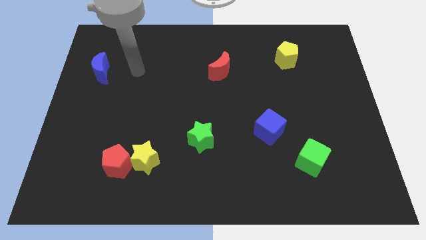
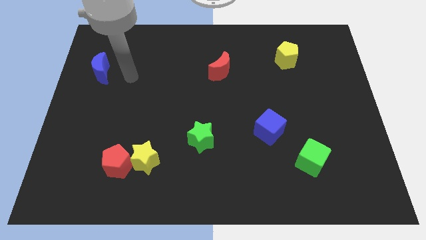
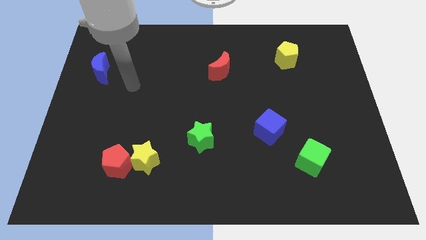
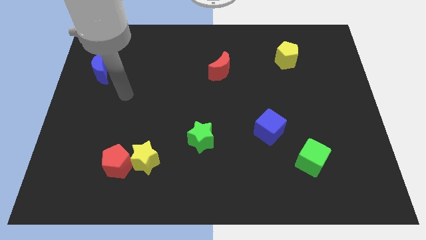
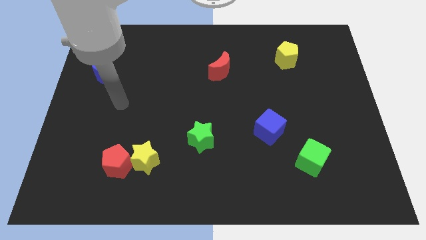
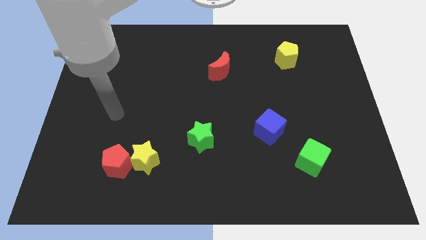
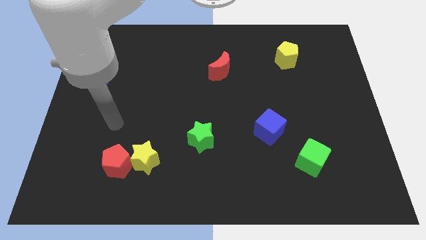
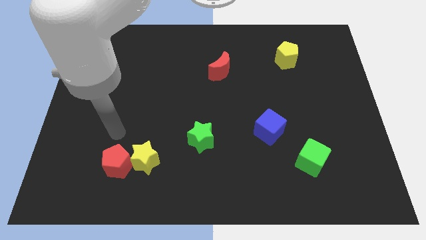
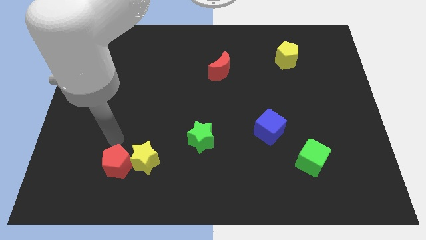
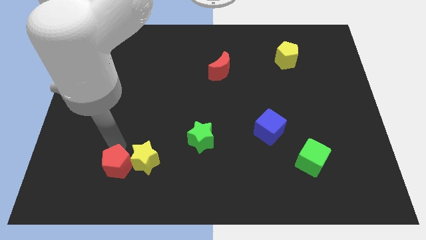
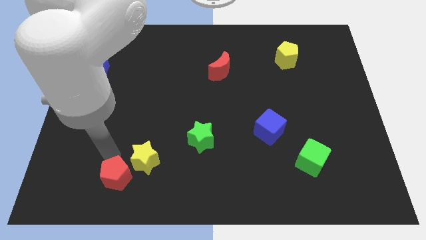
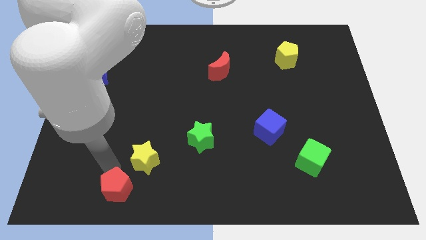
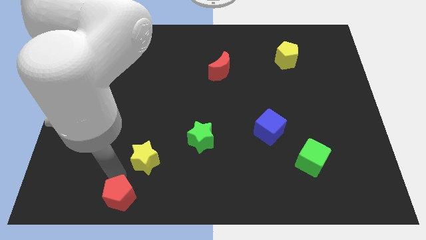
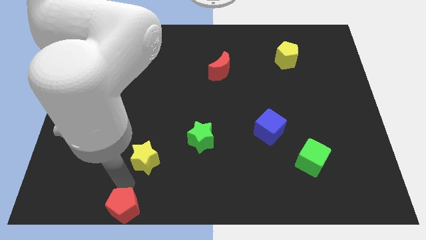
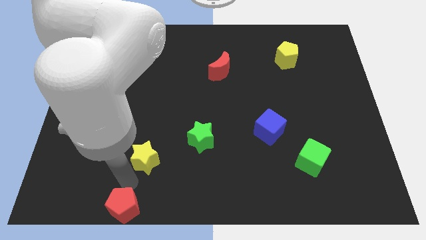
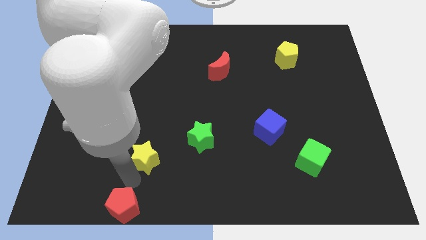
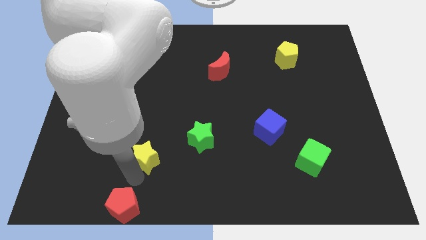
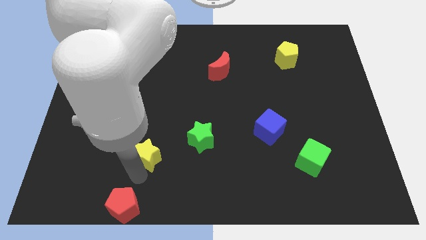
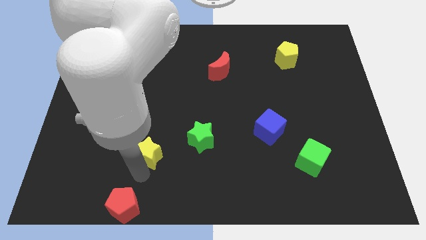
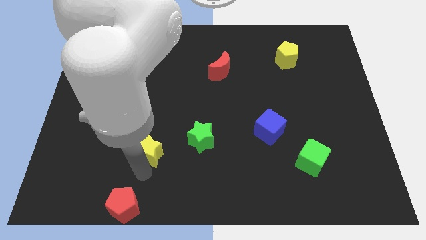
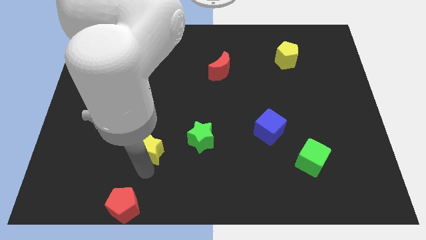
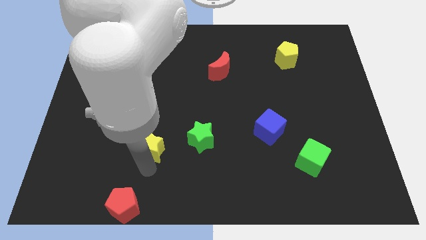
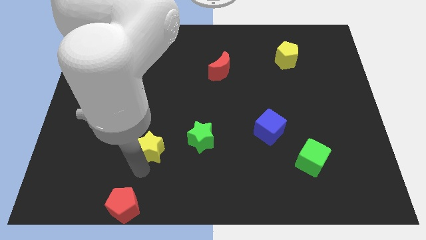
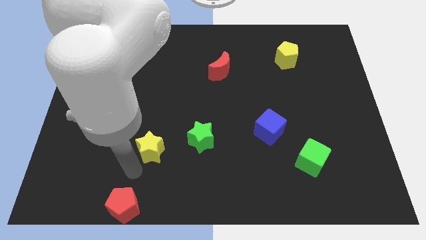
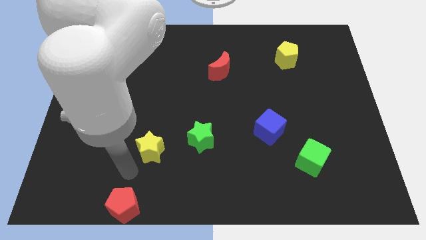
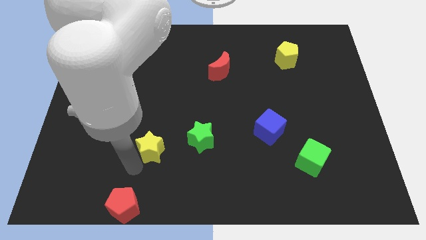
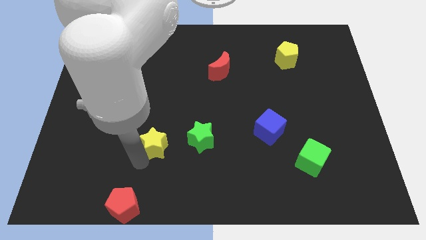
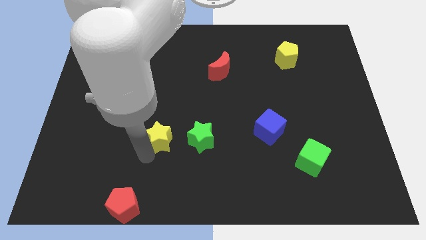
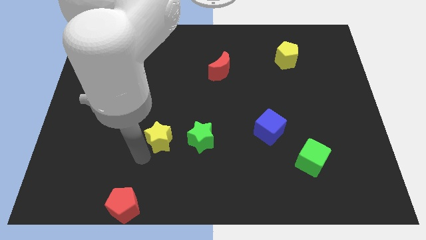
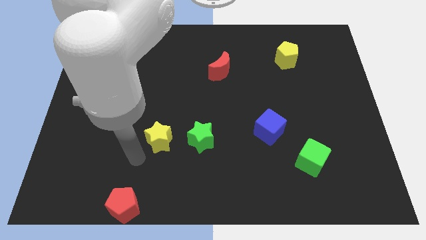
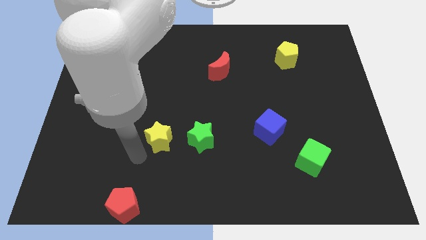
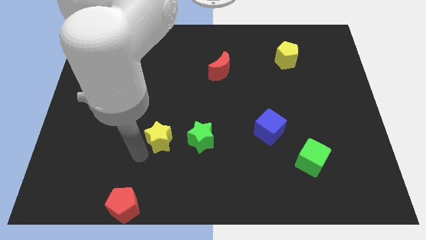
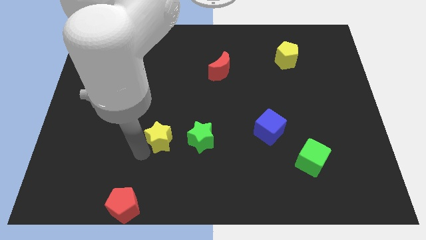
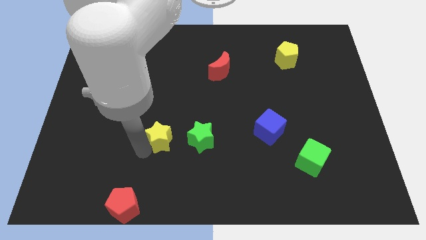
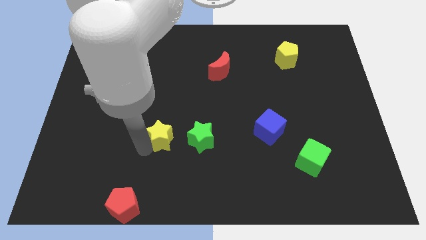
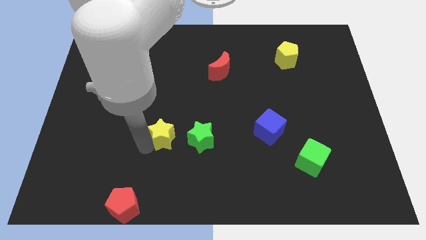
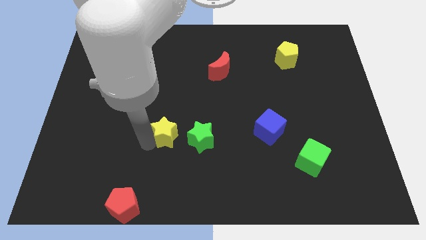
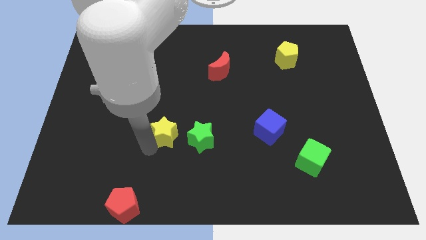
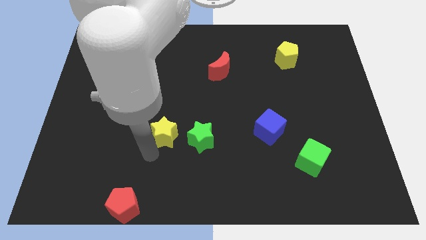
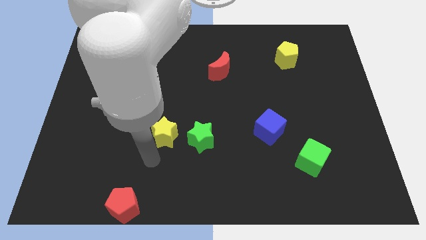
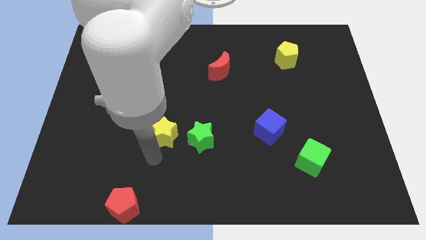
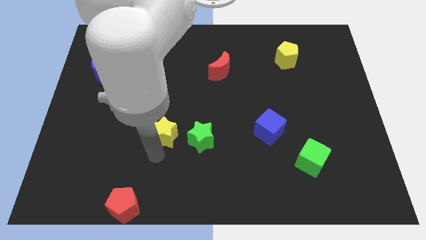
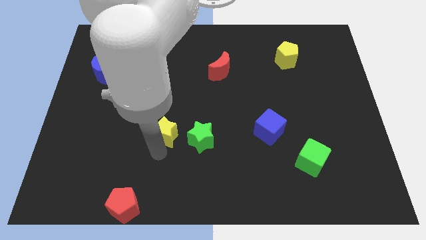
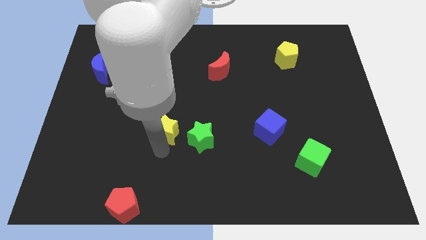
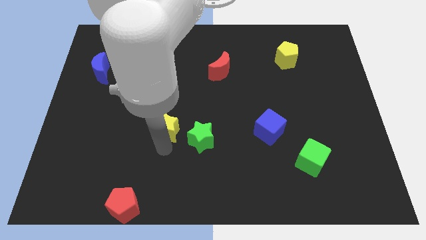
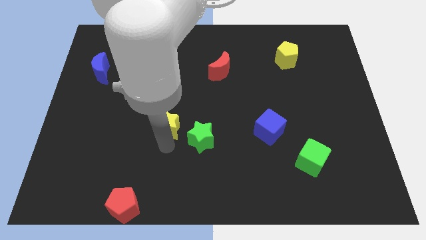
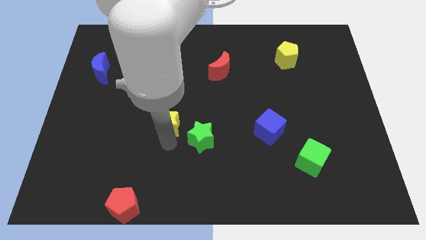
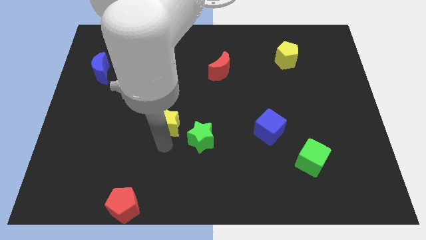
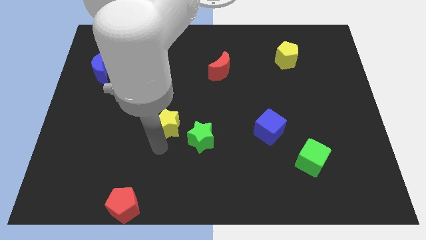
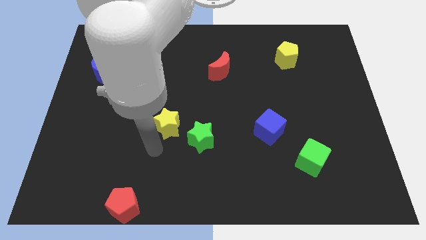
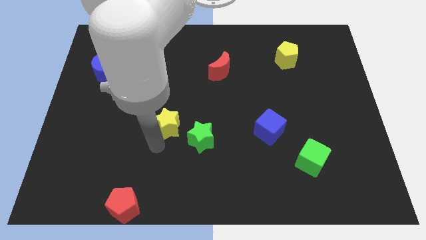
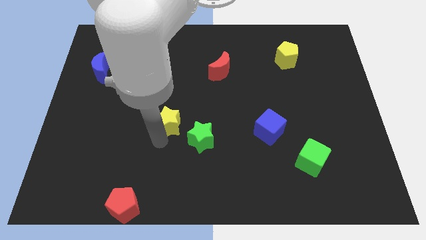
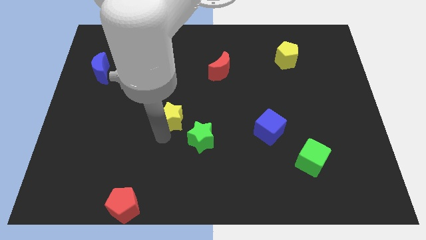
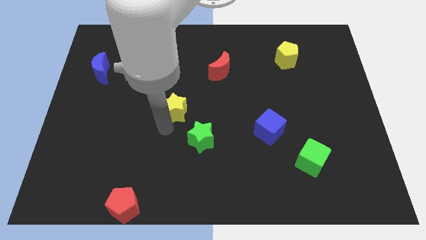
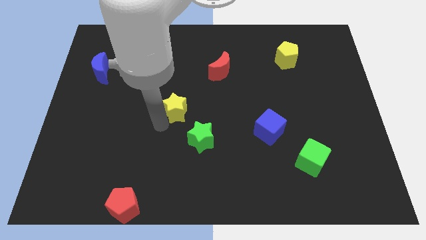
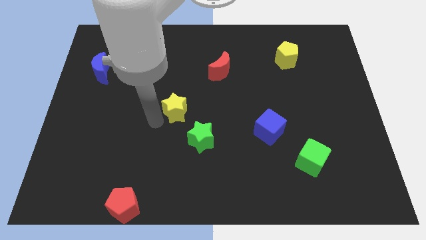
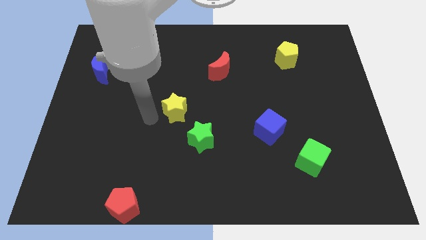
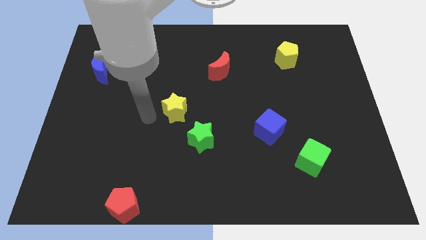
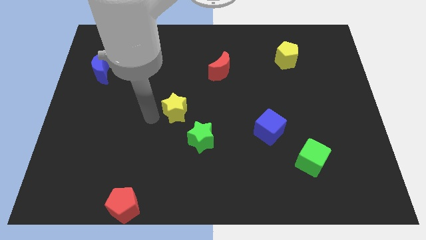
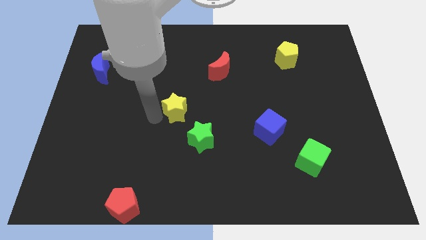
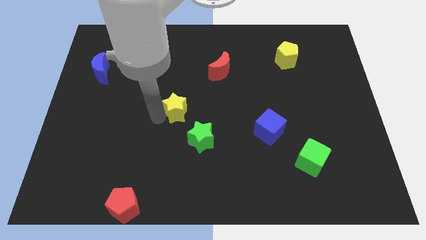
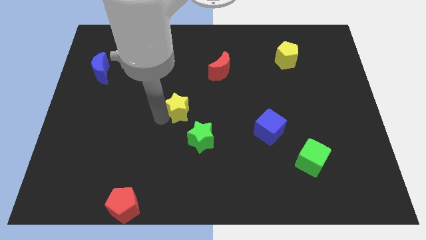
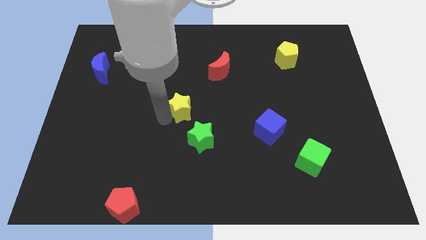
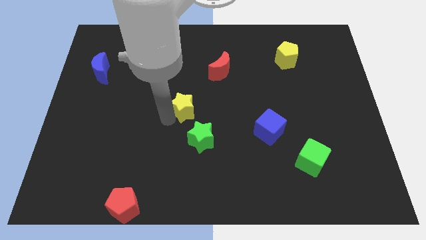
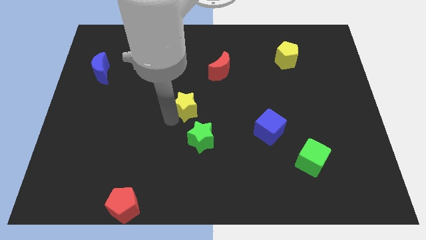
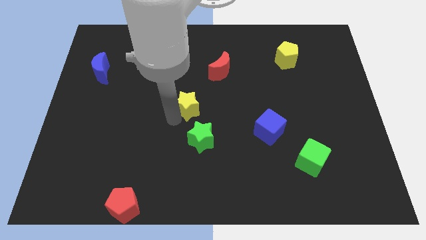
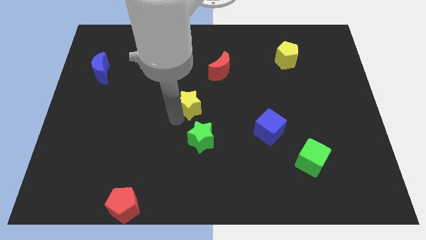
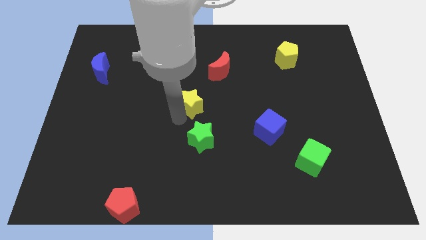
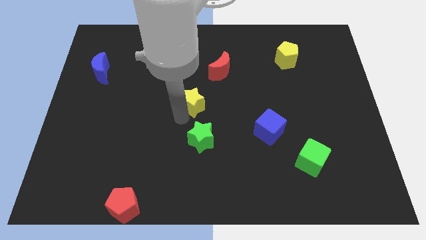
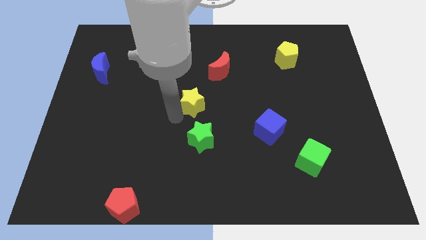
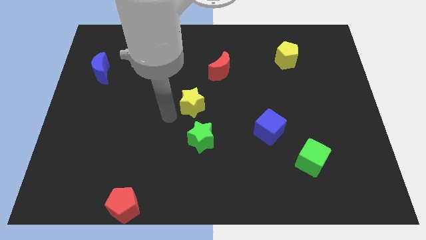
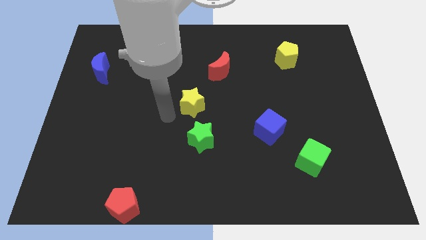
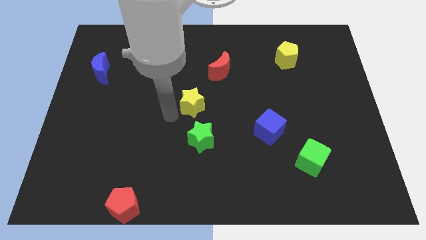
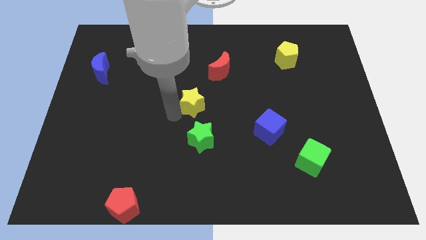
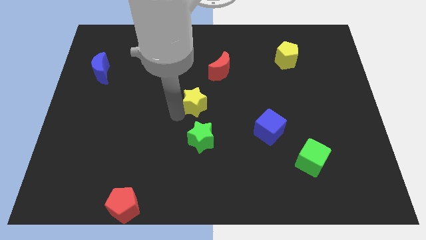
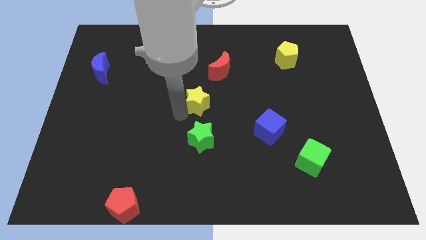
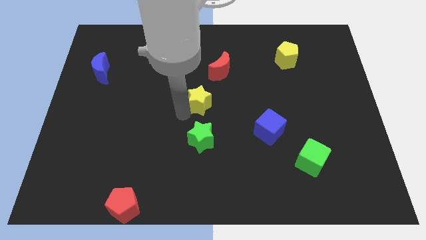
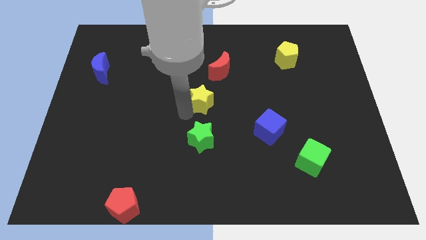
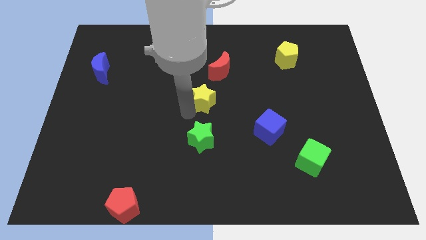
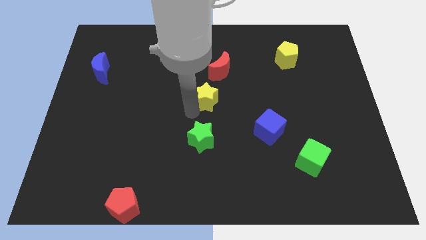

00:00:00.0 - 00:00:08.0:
slide the yellow star up and to the right diagonally
